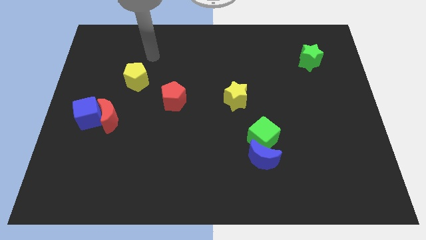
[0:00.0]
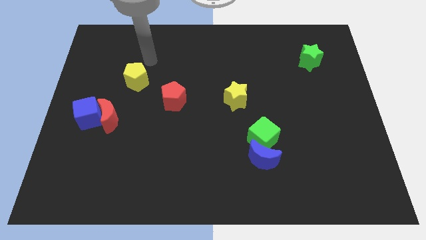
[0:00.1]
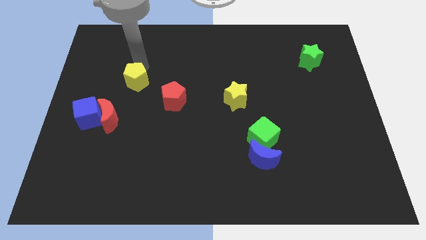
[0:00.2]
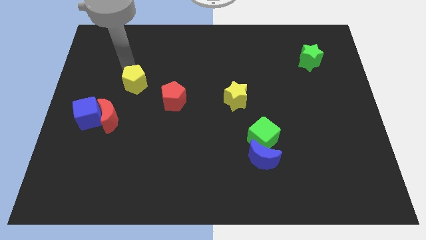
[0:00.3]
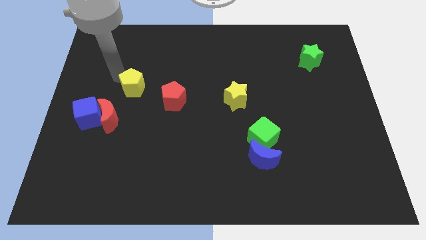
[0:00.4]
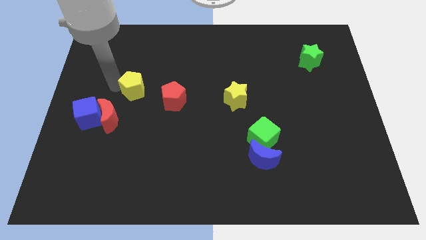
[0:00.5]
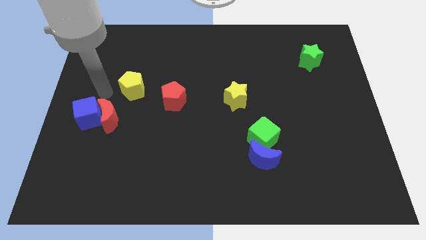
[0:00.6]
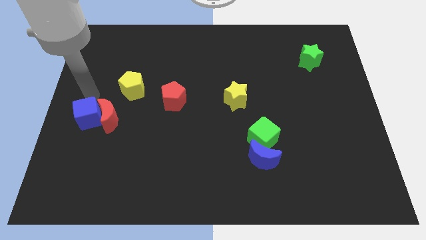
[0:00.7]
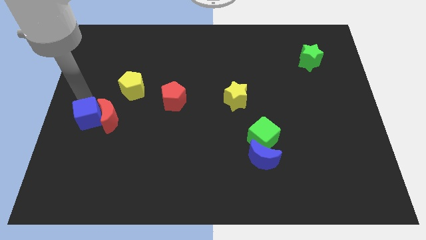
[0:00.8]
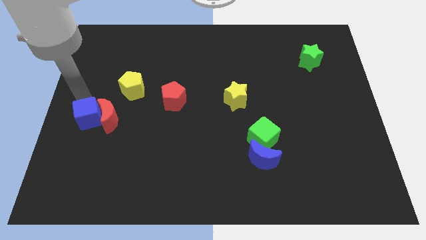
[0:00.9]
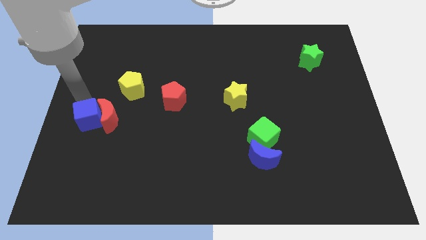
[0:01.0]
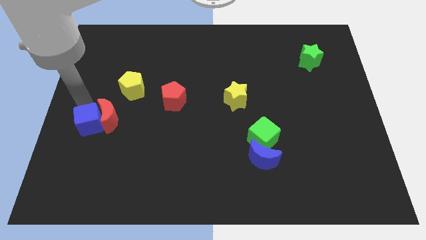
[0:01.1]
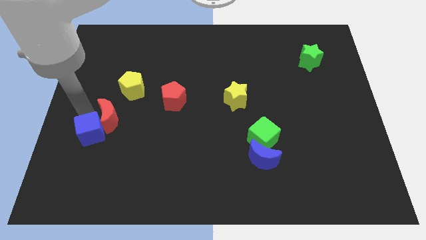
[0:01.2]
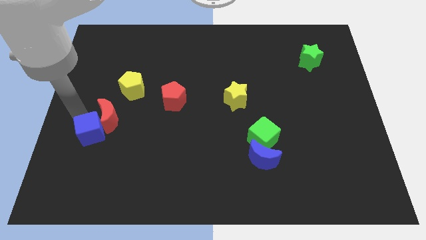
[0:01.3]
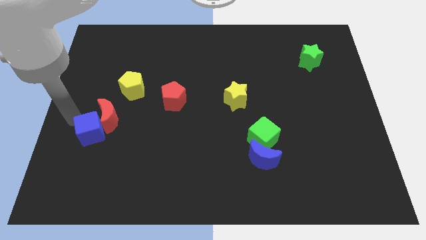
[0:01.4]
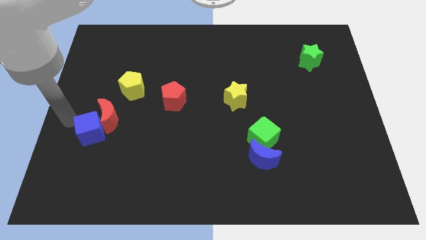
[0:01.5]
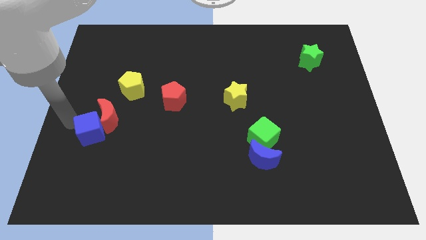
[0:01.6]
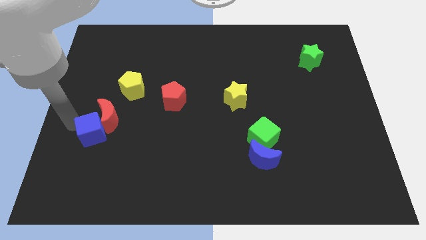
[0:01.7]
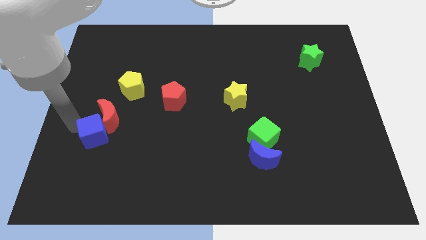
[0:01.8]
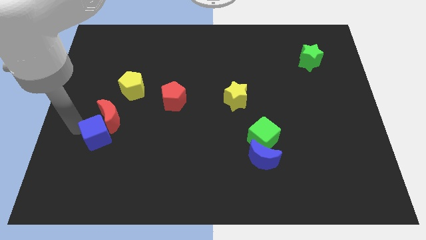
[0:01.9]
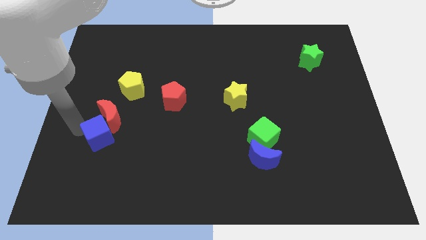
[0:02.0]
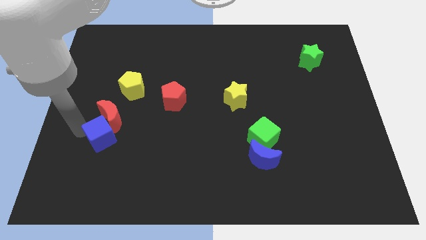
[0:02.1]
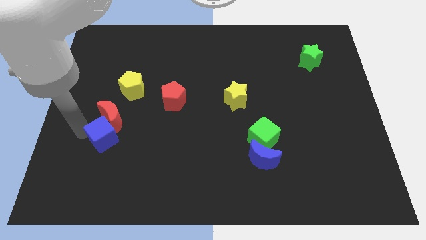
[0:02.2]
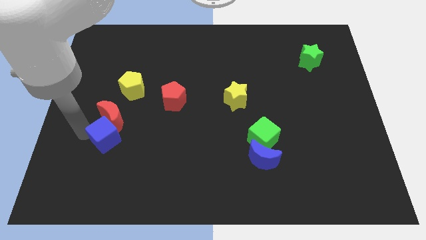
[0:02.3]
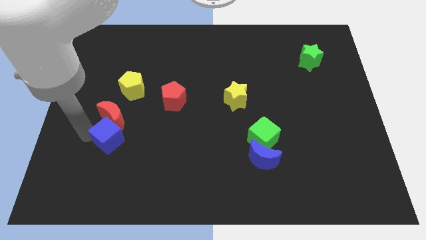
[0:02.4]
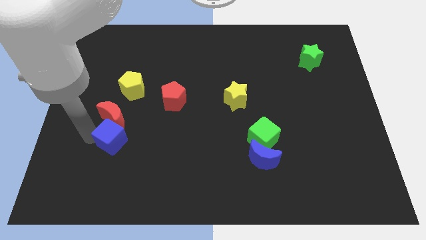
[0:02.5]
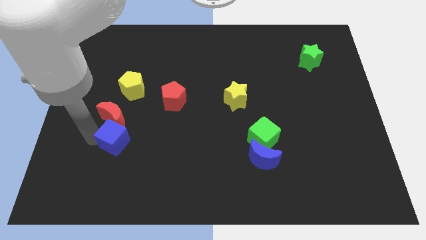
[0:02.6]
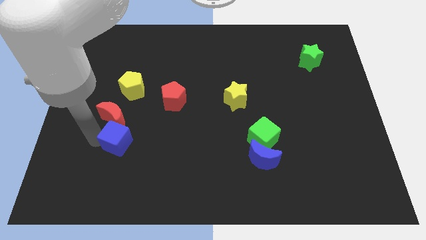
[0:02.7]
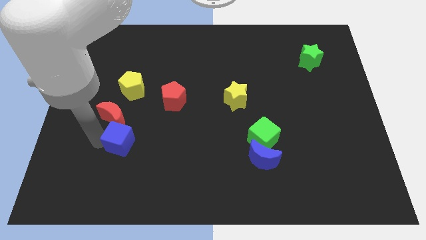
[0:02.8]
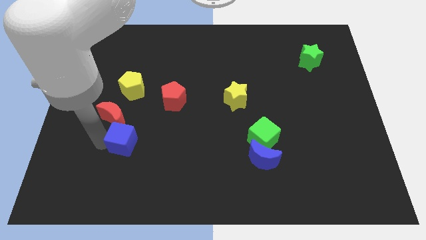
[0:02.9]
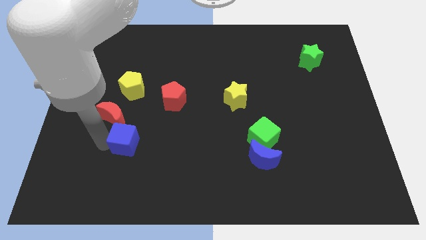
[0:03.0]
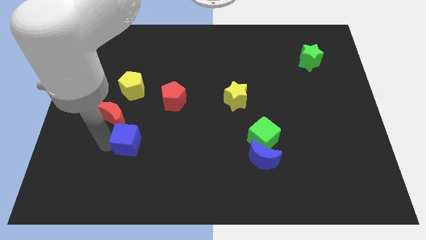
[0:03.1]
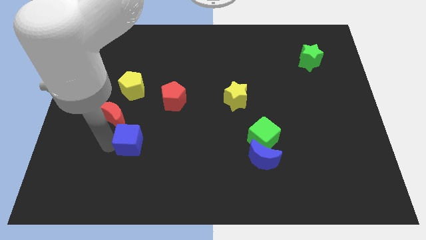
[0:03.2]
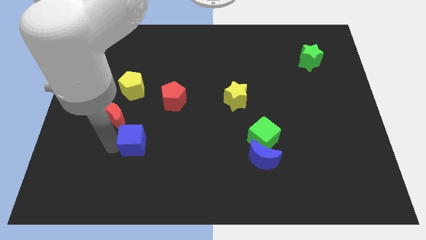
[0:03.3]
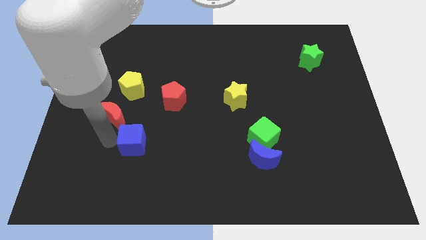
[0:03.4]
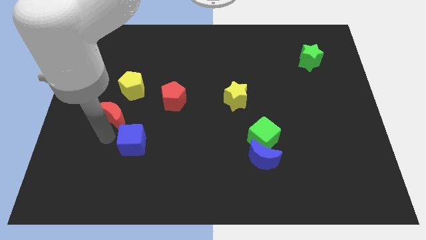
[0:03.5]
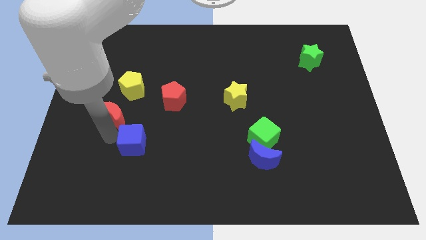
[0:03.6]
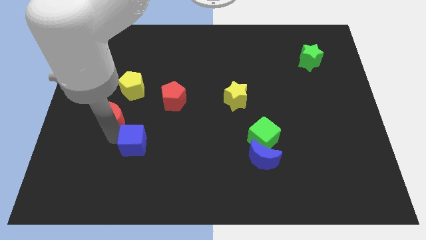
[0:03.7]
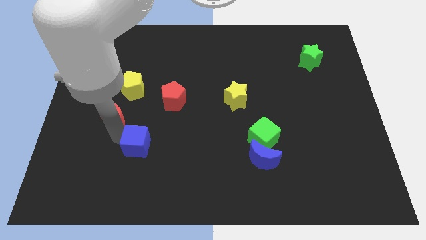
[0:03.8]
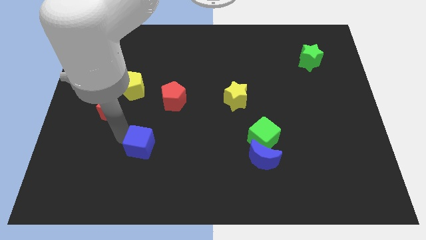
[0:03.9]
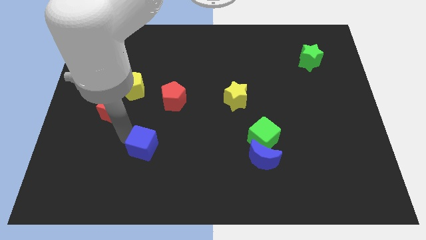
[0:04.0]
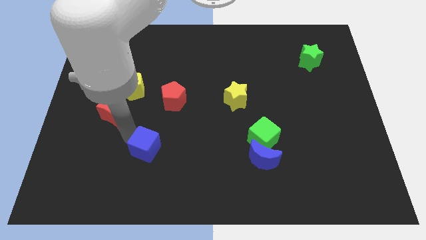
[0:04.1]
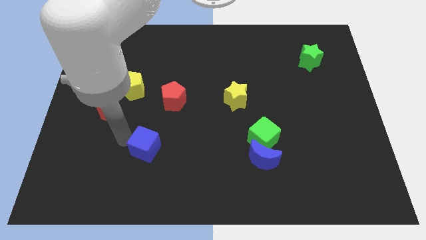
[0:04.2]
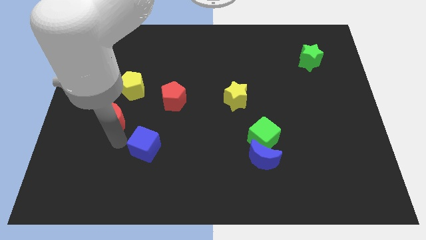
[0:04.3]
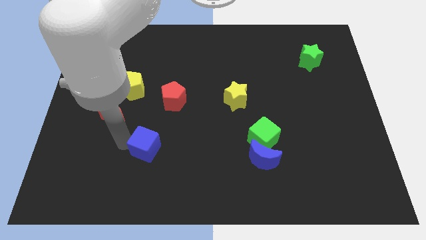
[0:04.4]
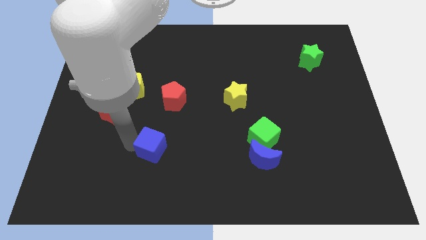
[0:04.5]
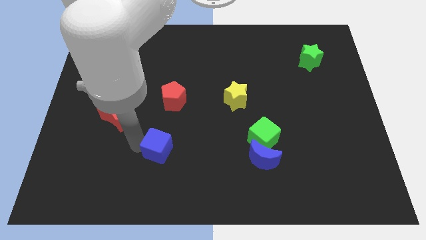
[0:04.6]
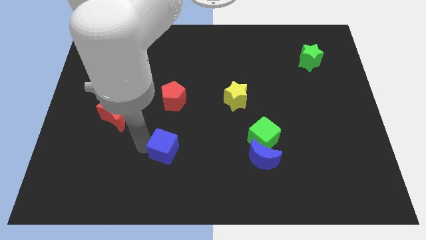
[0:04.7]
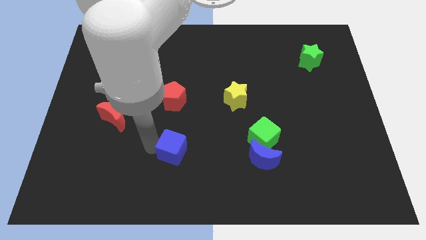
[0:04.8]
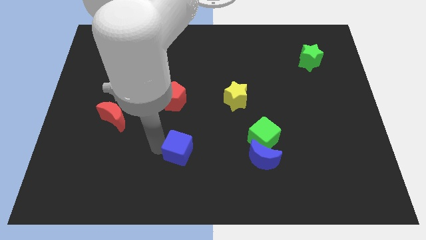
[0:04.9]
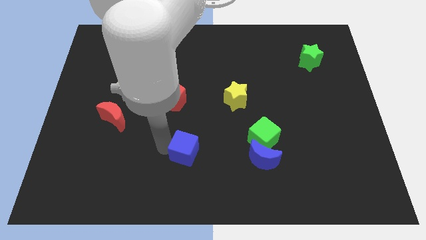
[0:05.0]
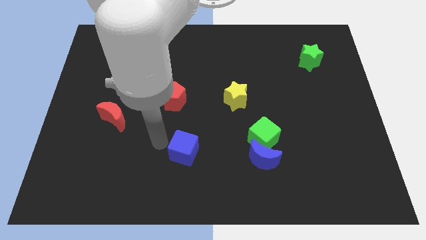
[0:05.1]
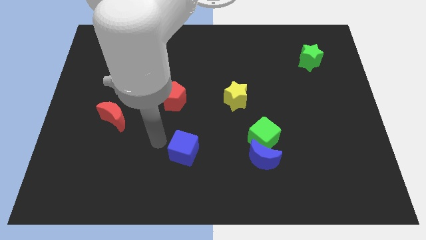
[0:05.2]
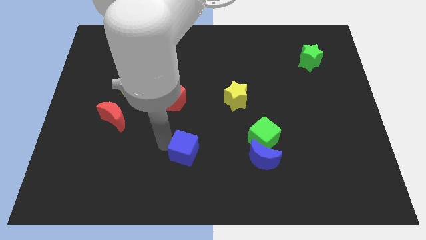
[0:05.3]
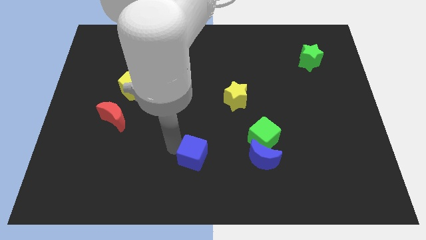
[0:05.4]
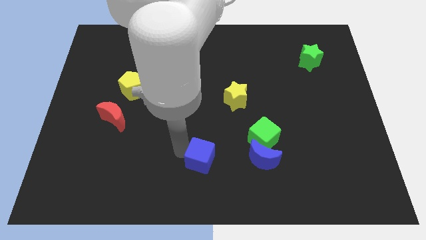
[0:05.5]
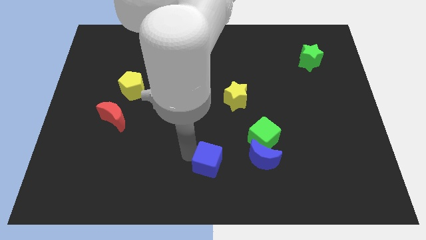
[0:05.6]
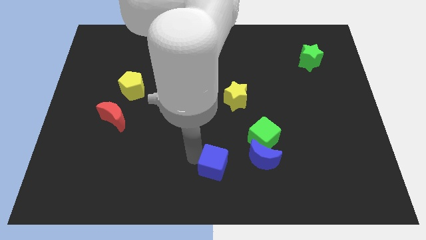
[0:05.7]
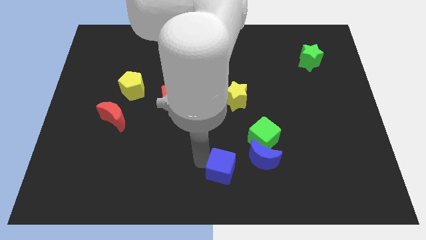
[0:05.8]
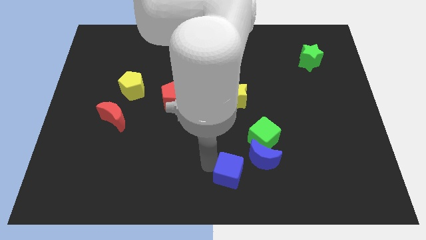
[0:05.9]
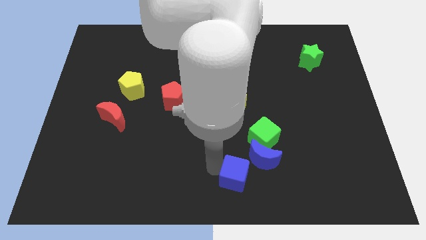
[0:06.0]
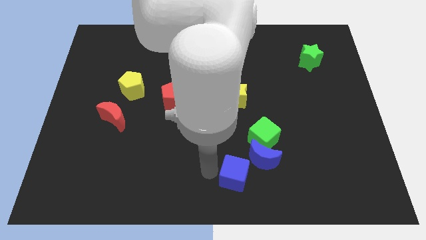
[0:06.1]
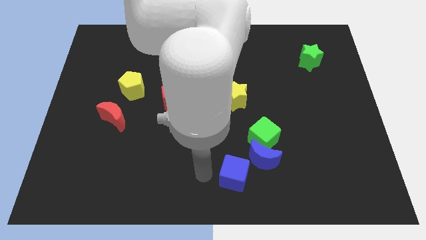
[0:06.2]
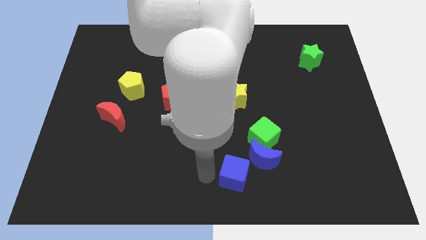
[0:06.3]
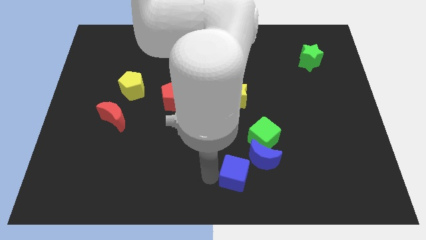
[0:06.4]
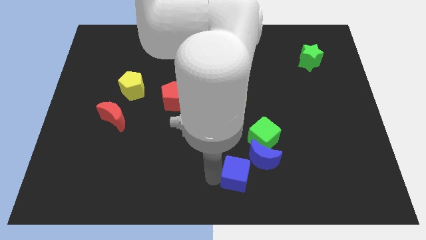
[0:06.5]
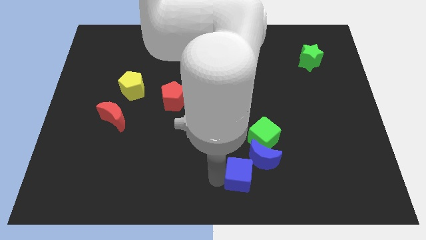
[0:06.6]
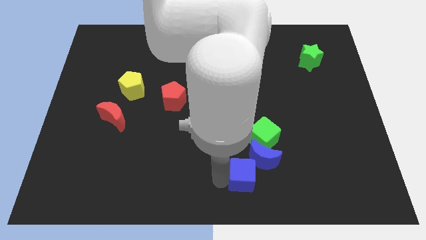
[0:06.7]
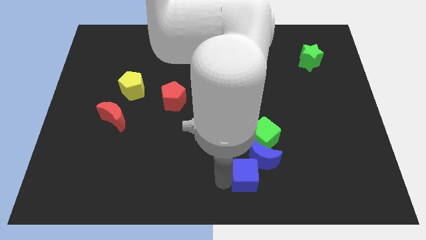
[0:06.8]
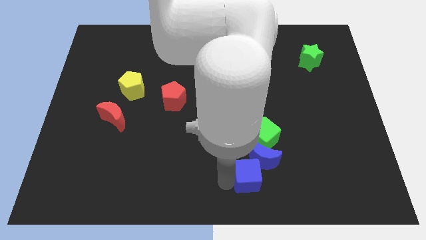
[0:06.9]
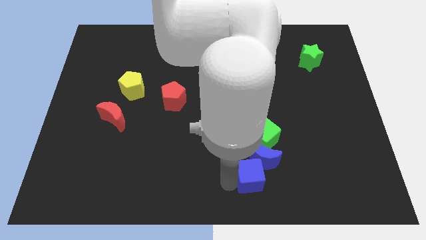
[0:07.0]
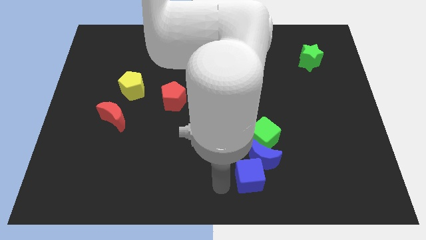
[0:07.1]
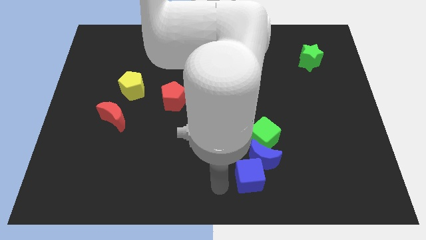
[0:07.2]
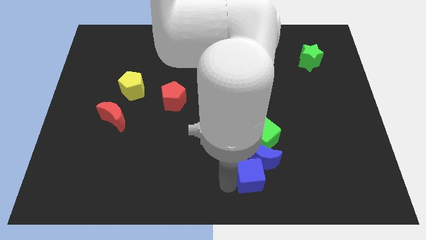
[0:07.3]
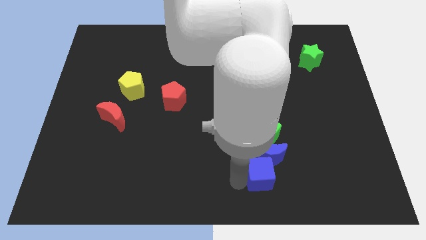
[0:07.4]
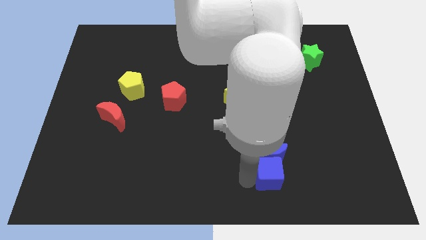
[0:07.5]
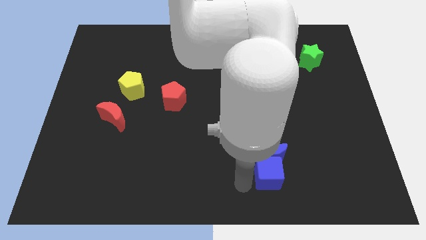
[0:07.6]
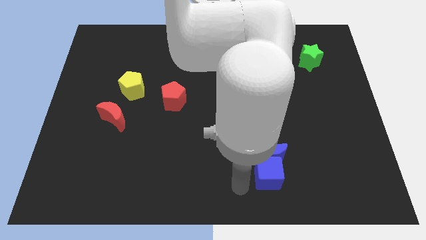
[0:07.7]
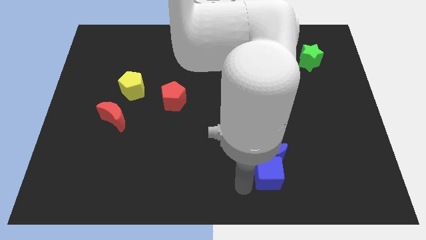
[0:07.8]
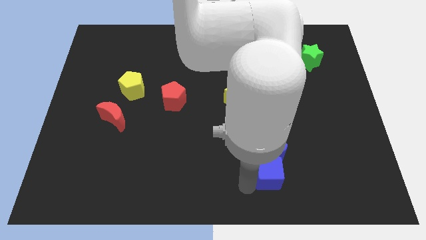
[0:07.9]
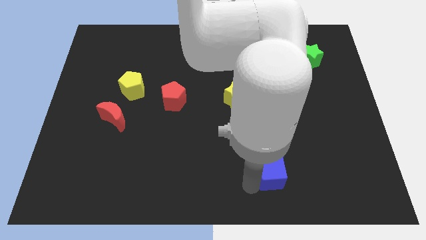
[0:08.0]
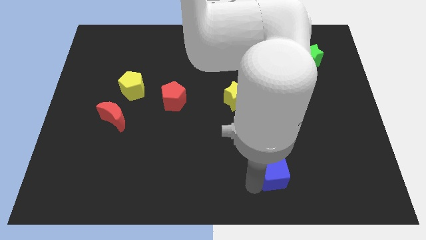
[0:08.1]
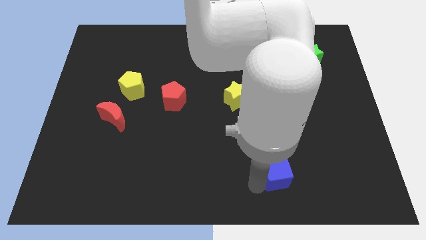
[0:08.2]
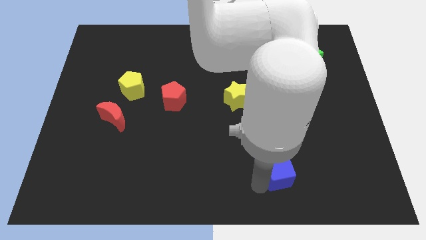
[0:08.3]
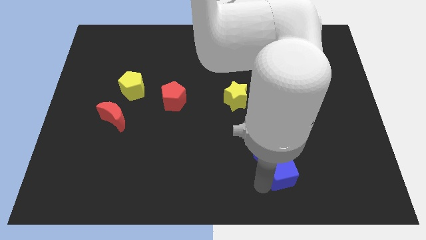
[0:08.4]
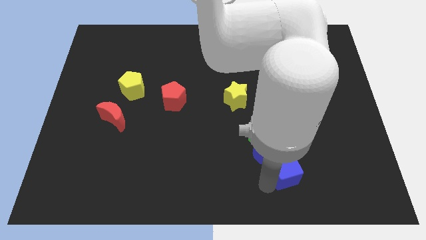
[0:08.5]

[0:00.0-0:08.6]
push the blue cube just right of the blue moon
